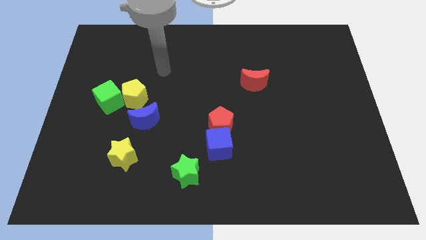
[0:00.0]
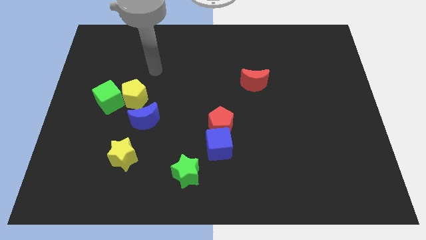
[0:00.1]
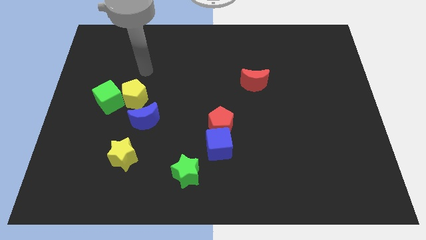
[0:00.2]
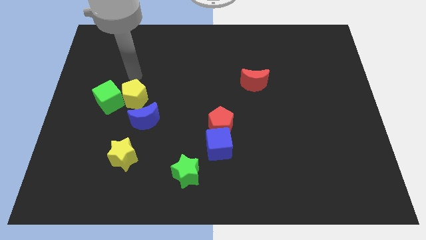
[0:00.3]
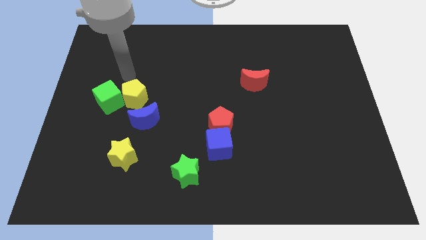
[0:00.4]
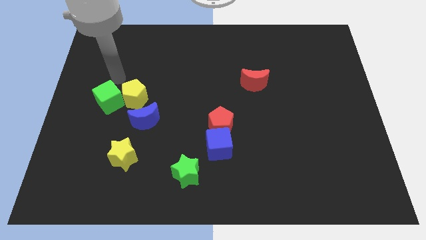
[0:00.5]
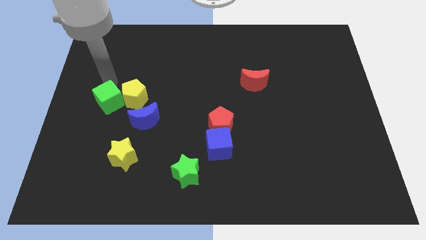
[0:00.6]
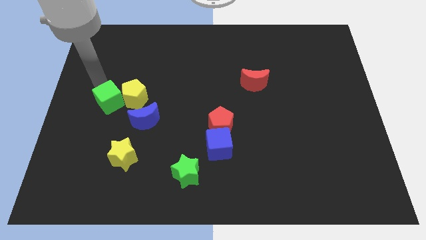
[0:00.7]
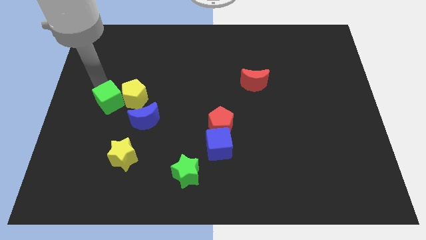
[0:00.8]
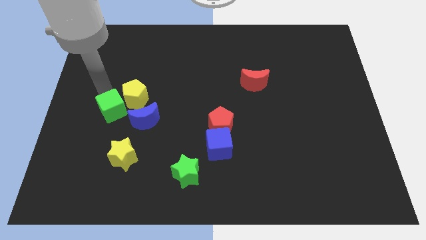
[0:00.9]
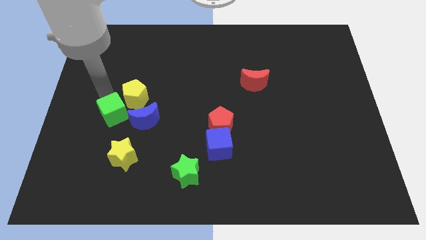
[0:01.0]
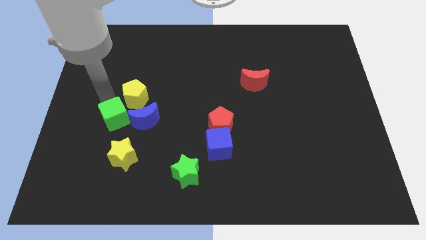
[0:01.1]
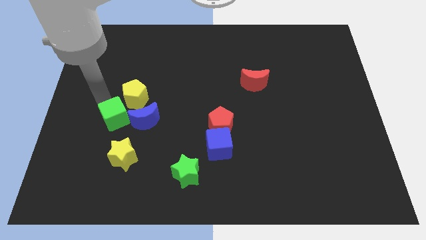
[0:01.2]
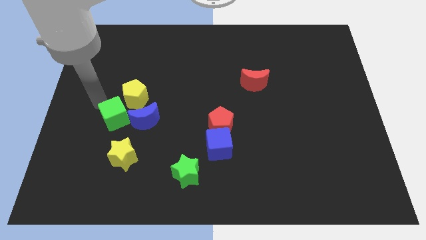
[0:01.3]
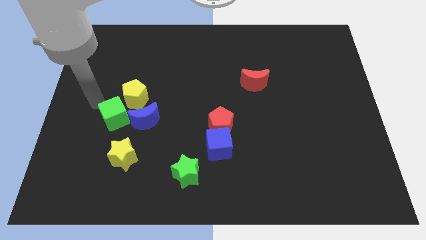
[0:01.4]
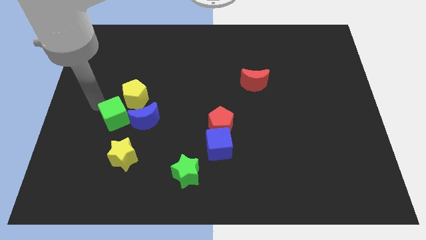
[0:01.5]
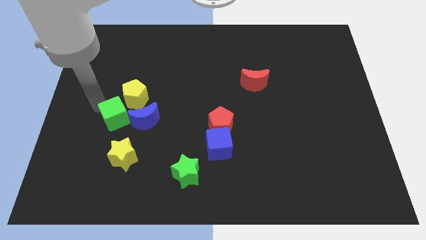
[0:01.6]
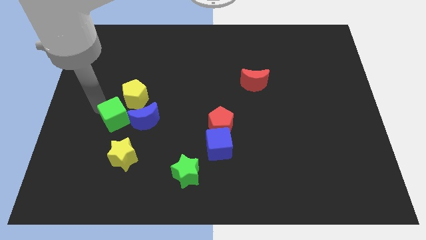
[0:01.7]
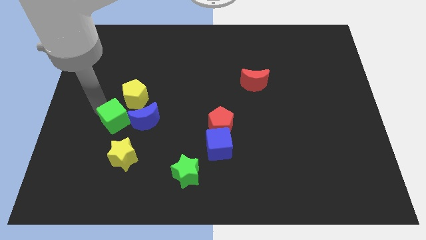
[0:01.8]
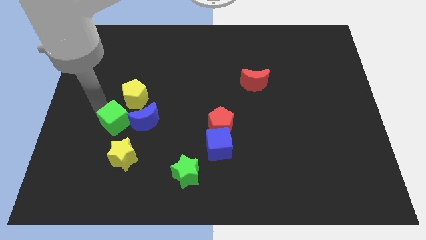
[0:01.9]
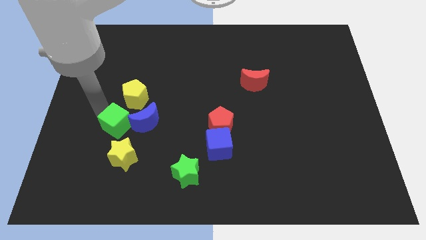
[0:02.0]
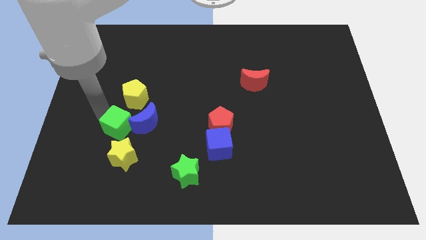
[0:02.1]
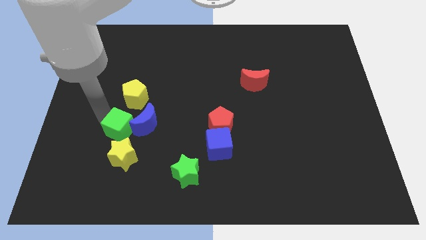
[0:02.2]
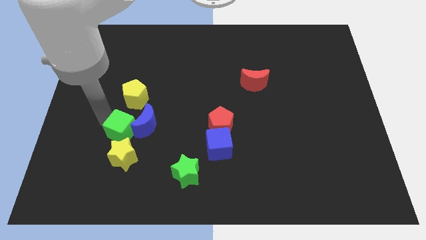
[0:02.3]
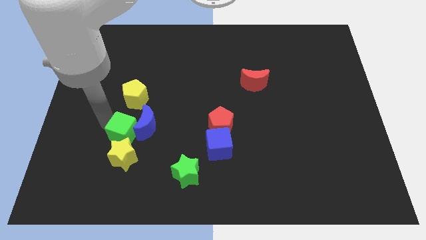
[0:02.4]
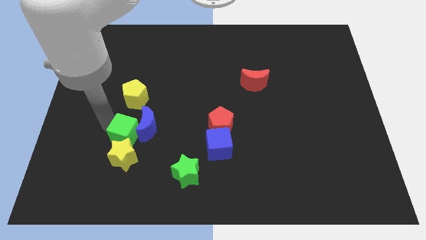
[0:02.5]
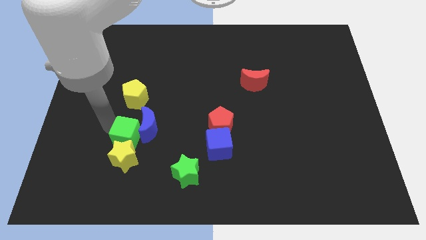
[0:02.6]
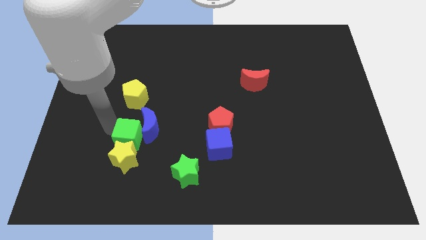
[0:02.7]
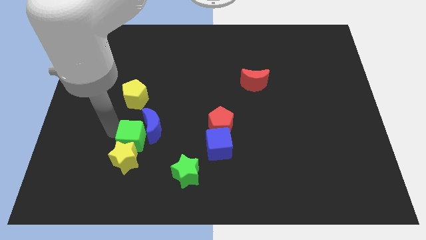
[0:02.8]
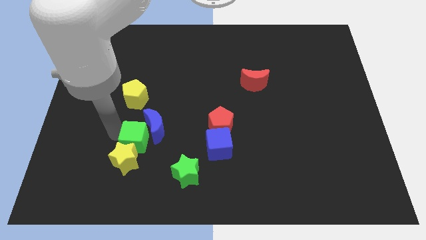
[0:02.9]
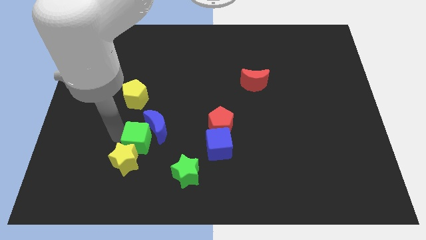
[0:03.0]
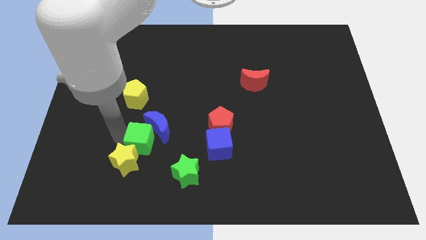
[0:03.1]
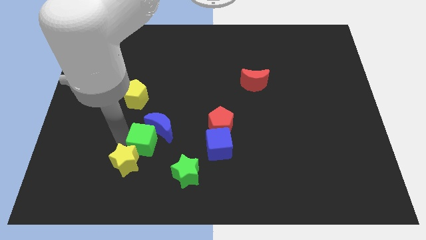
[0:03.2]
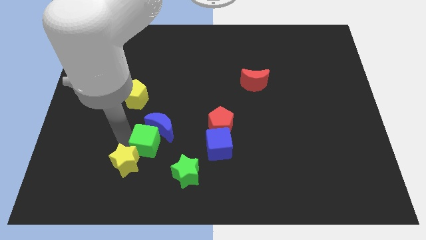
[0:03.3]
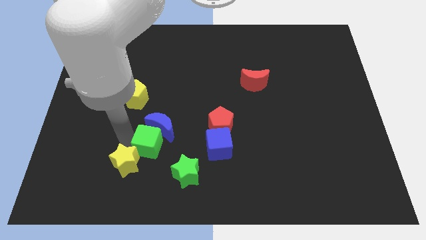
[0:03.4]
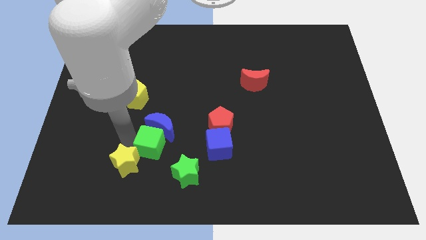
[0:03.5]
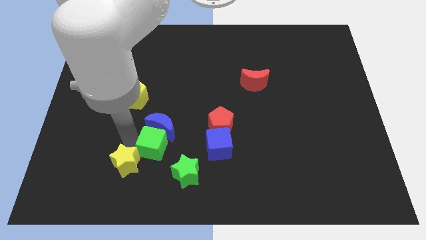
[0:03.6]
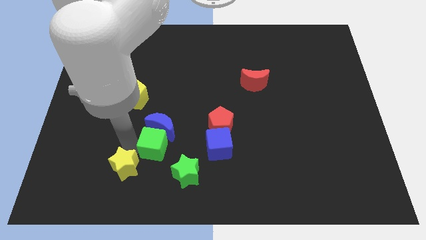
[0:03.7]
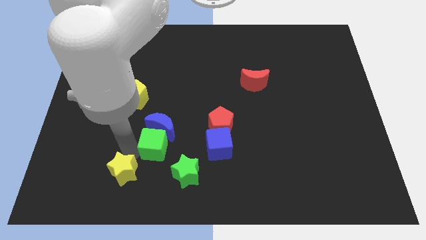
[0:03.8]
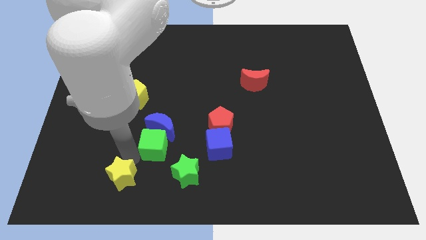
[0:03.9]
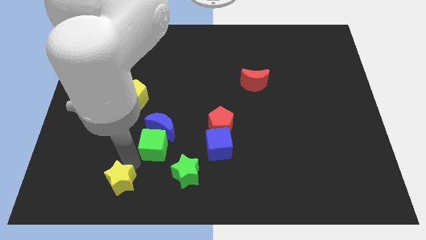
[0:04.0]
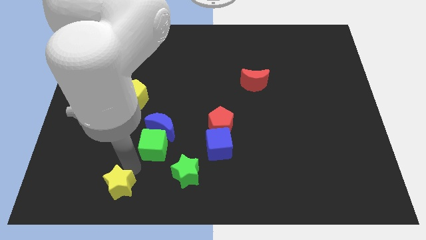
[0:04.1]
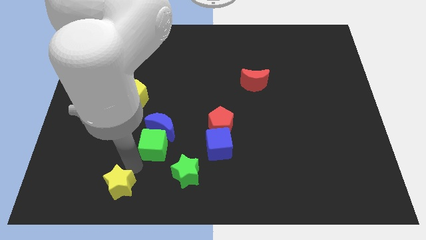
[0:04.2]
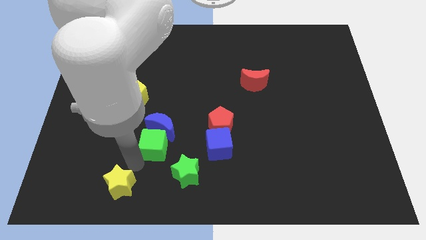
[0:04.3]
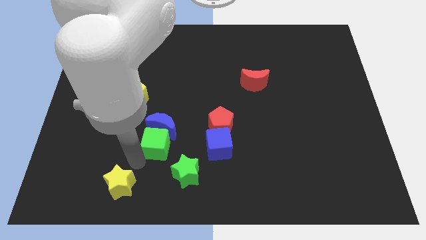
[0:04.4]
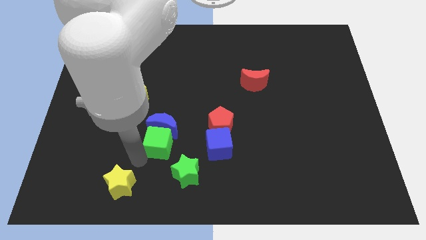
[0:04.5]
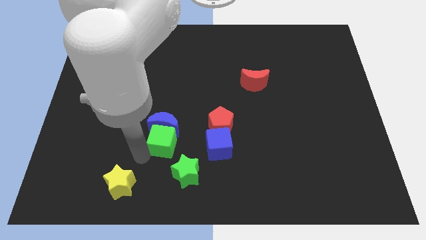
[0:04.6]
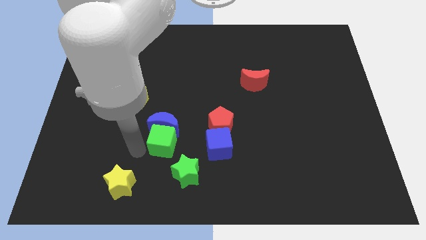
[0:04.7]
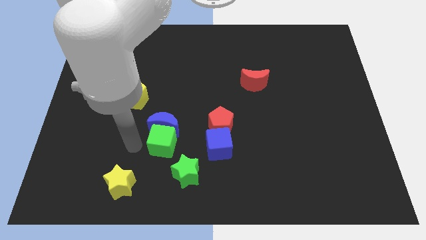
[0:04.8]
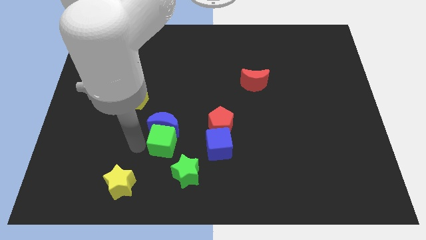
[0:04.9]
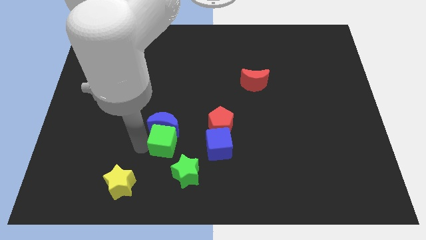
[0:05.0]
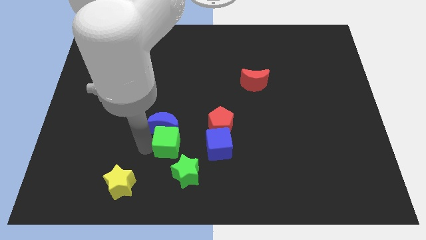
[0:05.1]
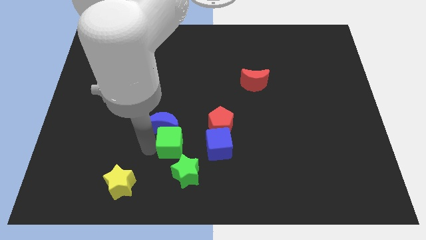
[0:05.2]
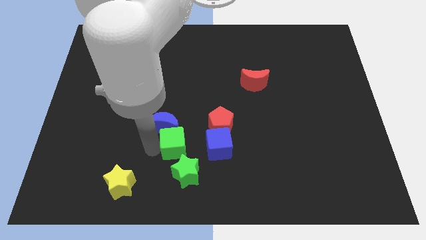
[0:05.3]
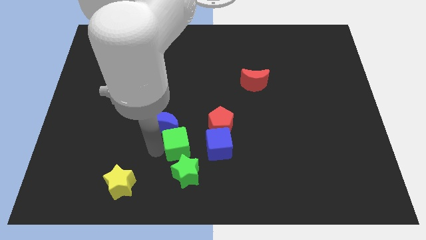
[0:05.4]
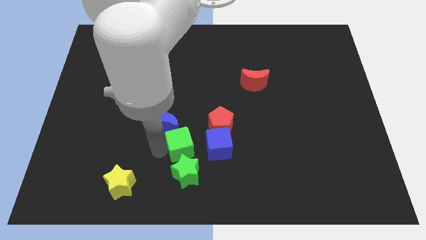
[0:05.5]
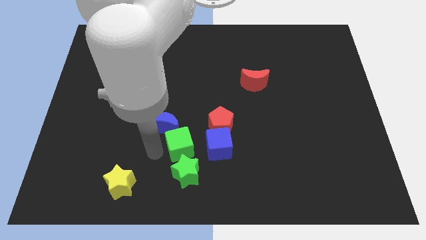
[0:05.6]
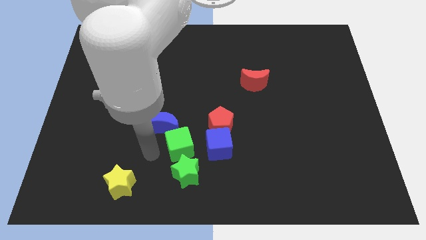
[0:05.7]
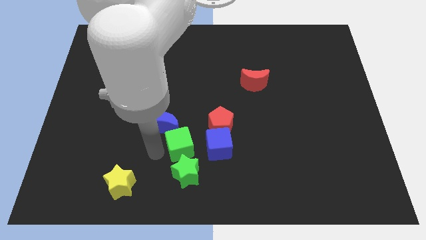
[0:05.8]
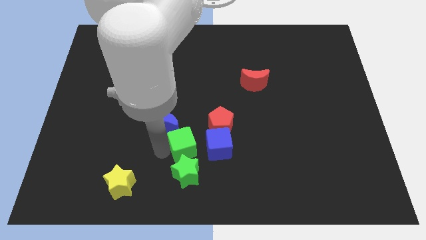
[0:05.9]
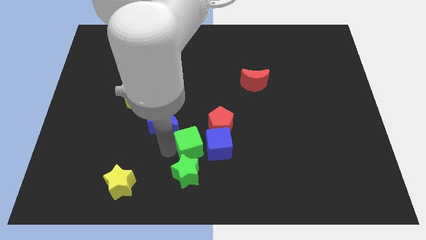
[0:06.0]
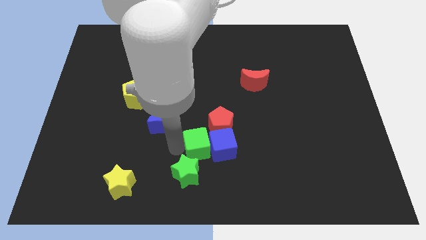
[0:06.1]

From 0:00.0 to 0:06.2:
put the green cube to the blue cube

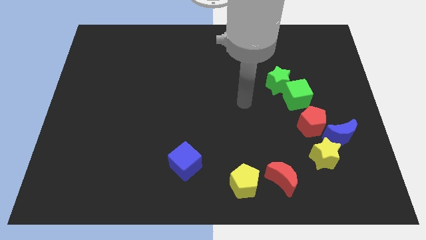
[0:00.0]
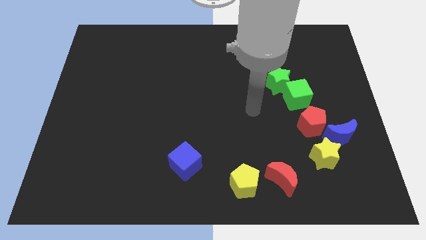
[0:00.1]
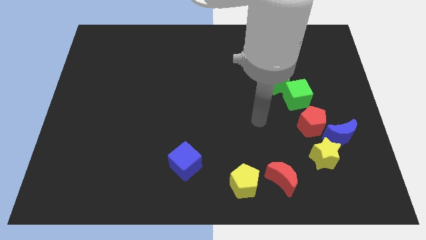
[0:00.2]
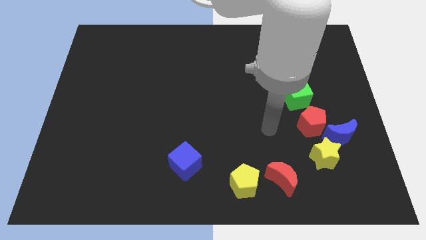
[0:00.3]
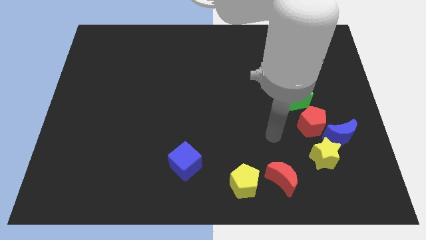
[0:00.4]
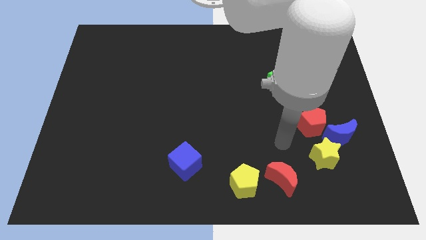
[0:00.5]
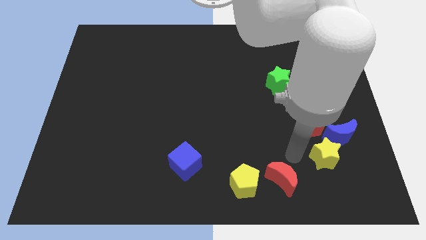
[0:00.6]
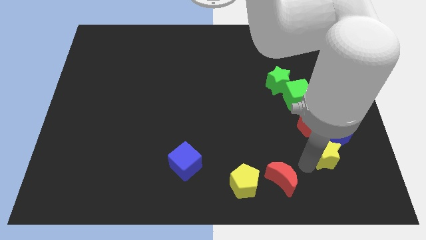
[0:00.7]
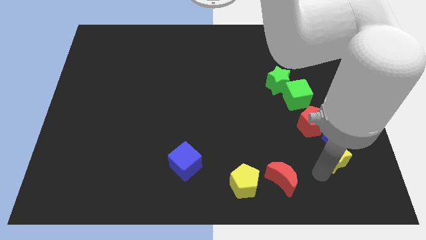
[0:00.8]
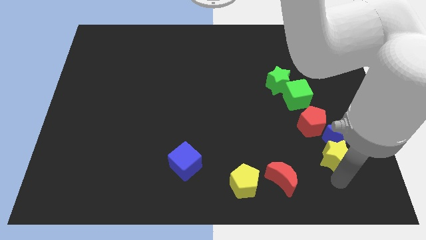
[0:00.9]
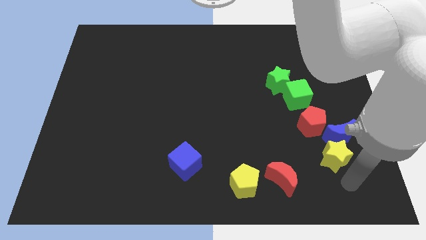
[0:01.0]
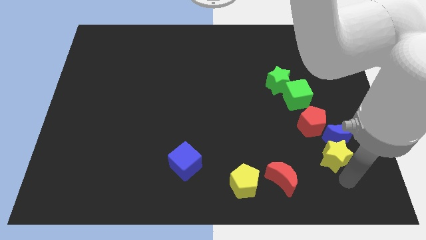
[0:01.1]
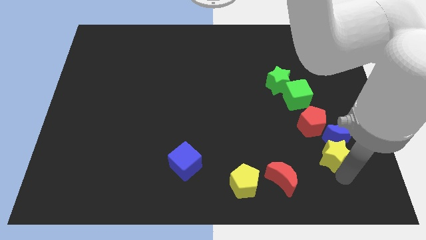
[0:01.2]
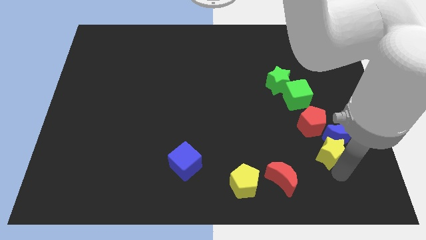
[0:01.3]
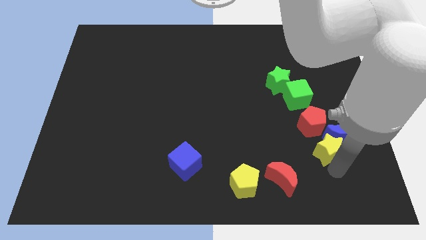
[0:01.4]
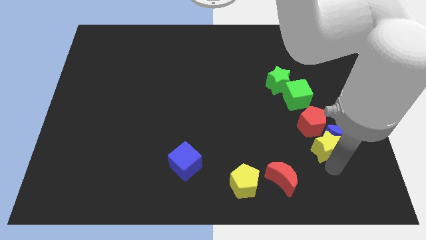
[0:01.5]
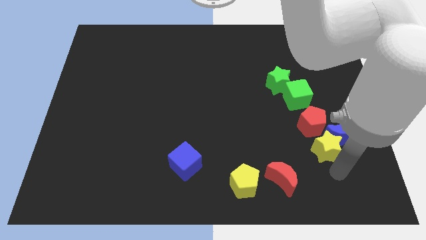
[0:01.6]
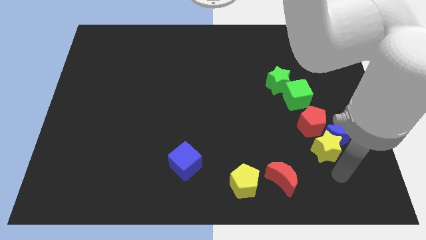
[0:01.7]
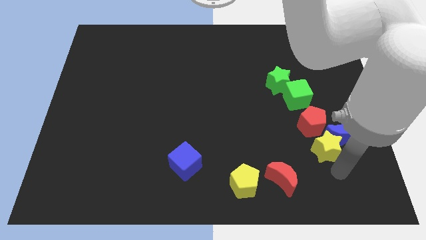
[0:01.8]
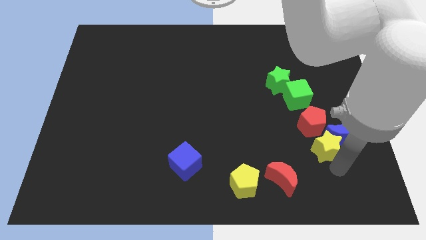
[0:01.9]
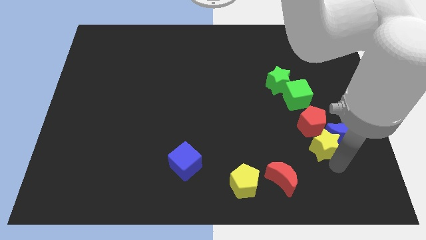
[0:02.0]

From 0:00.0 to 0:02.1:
push the yellow star towards the red pentagon
